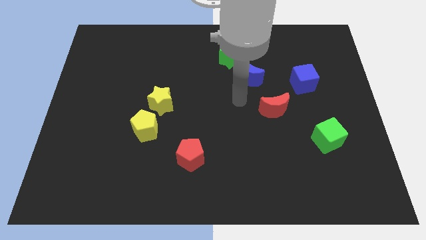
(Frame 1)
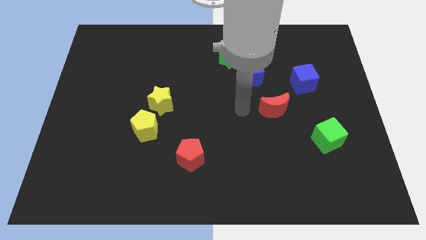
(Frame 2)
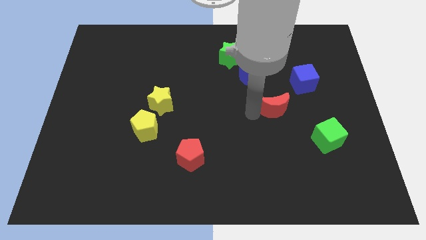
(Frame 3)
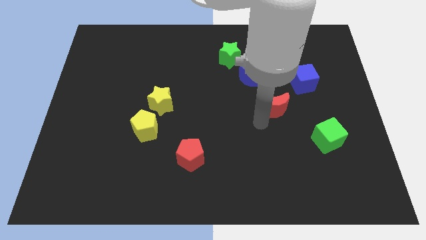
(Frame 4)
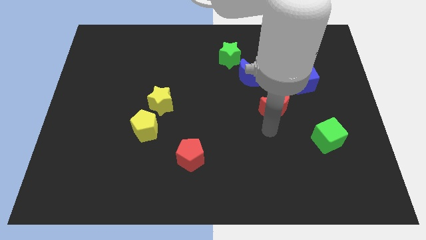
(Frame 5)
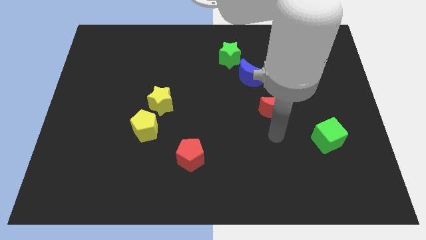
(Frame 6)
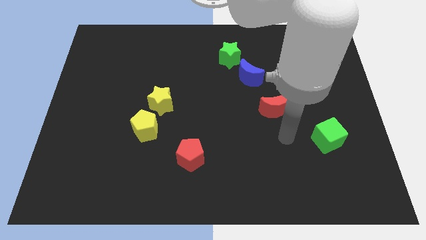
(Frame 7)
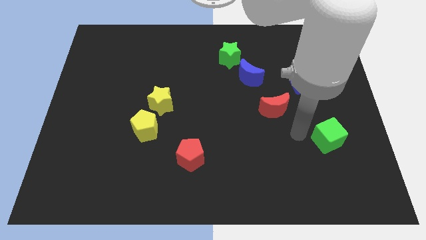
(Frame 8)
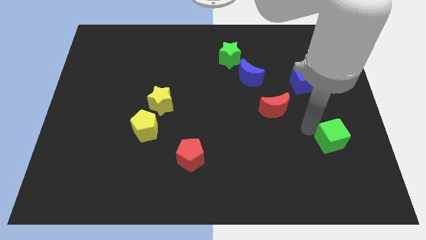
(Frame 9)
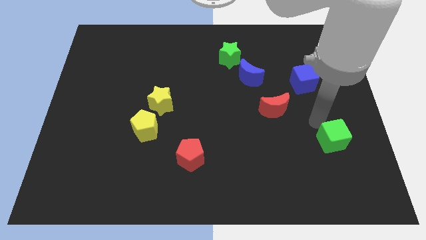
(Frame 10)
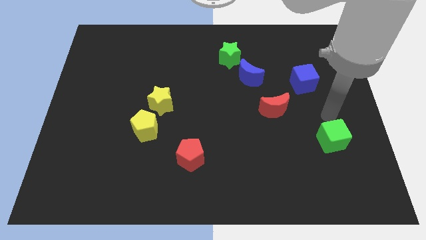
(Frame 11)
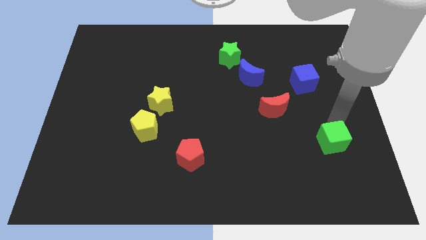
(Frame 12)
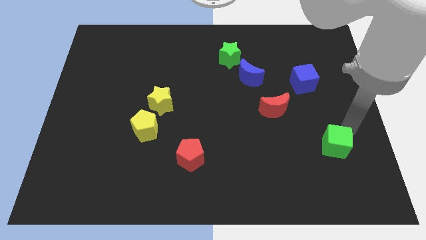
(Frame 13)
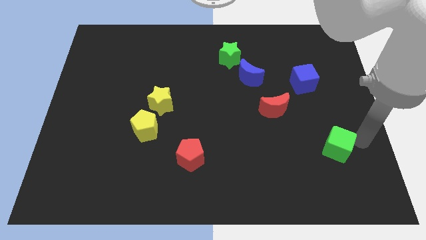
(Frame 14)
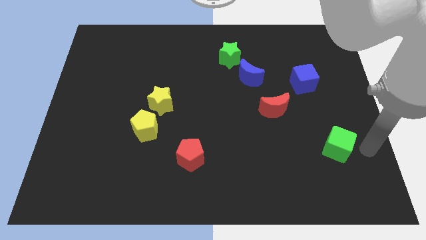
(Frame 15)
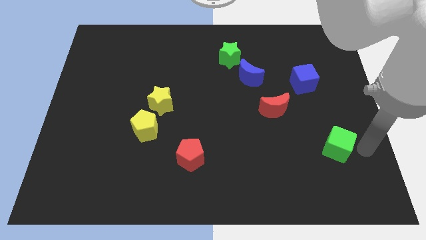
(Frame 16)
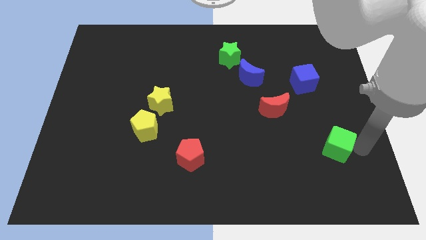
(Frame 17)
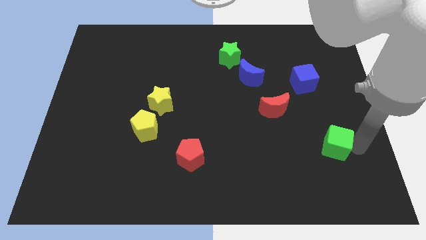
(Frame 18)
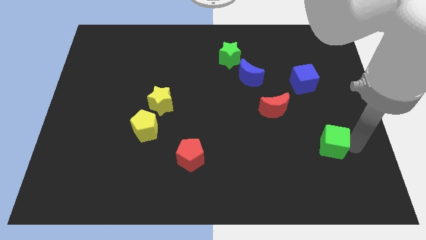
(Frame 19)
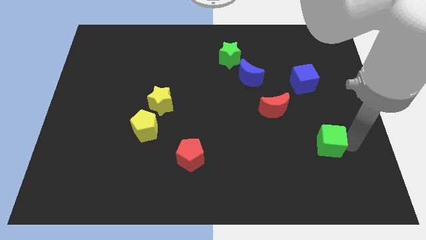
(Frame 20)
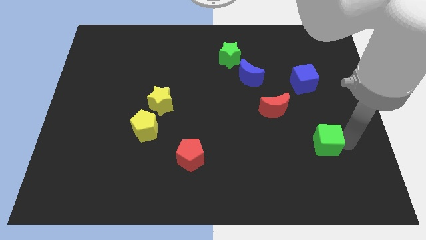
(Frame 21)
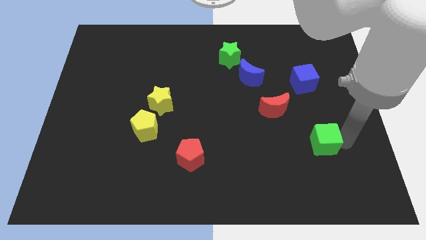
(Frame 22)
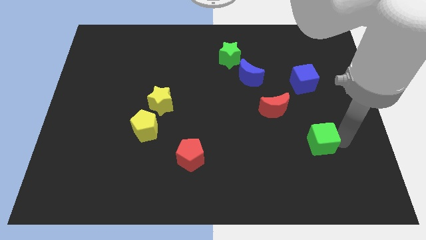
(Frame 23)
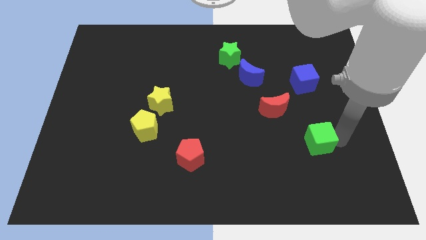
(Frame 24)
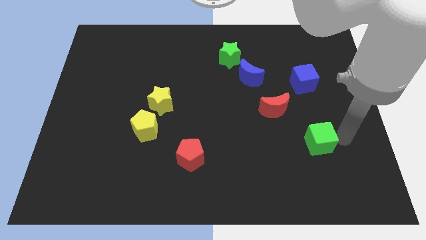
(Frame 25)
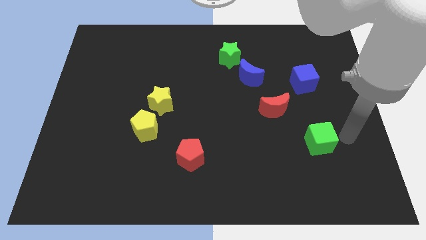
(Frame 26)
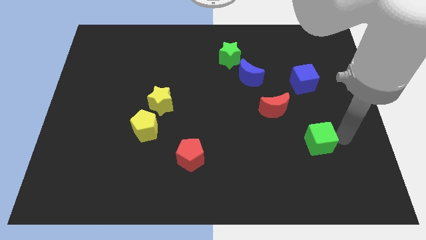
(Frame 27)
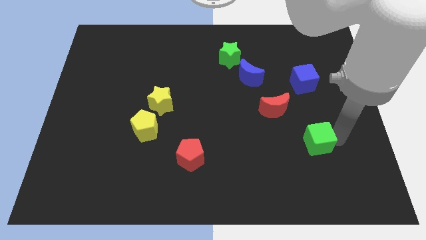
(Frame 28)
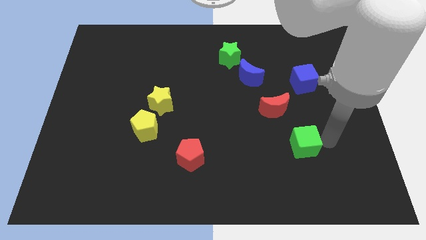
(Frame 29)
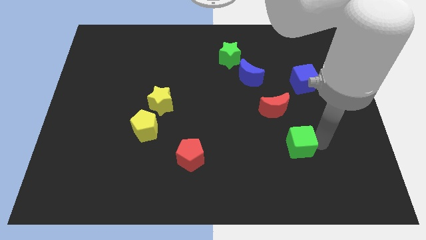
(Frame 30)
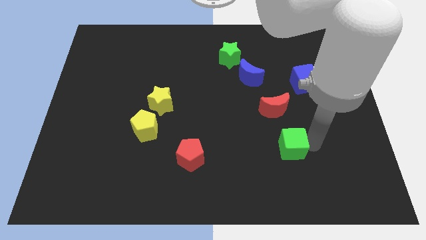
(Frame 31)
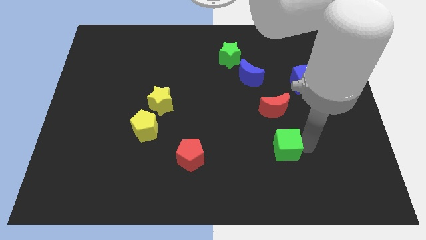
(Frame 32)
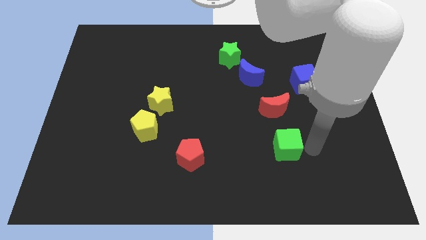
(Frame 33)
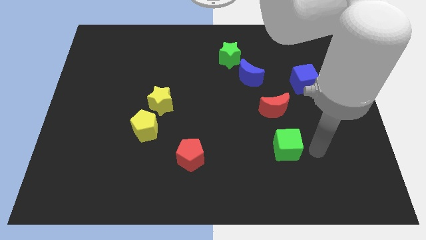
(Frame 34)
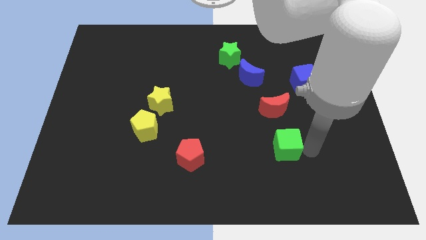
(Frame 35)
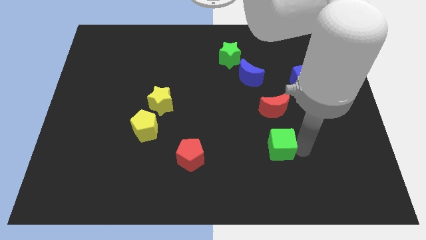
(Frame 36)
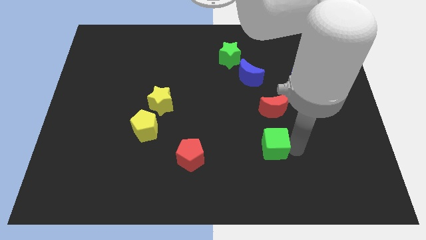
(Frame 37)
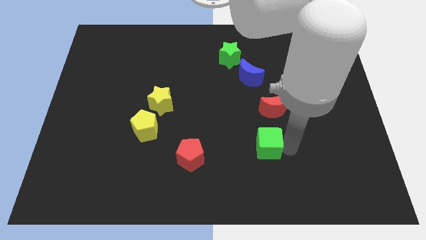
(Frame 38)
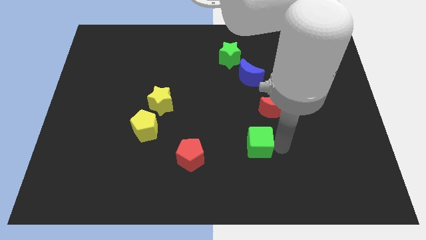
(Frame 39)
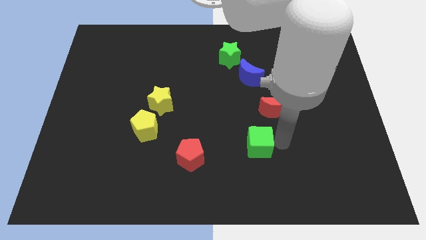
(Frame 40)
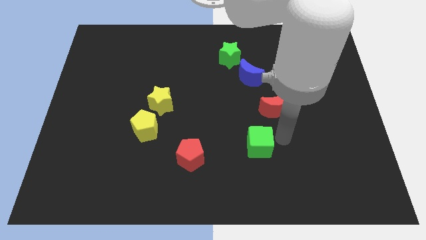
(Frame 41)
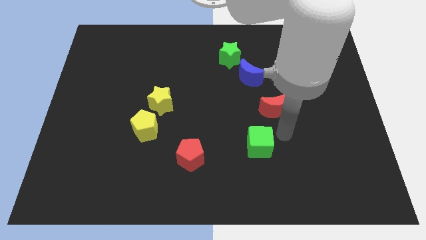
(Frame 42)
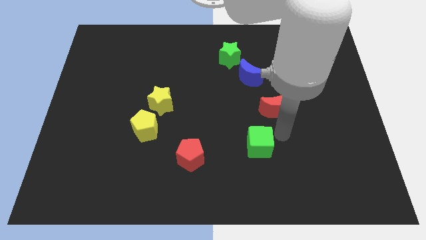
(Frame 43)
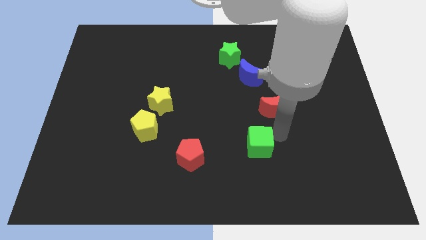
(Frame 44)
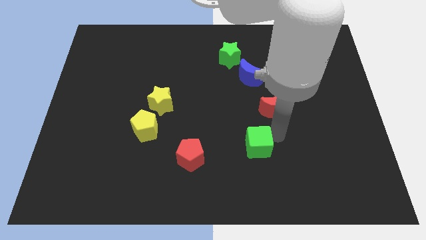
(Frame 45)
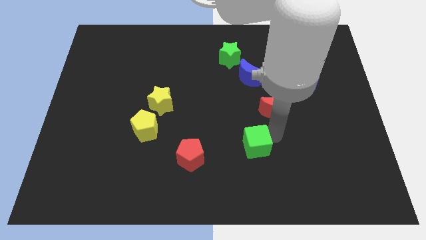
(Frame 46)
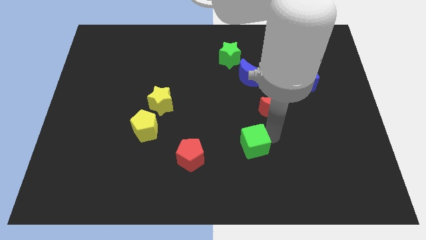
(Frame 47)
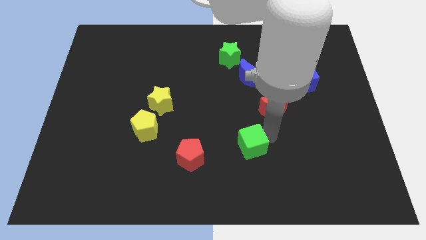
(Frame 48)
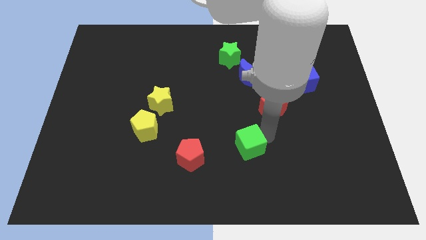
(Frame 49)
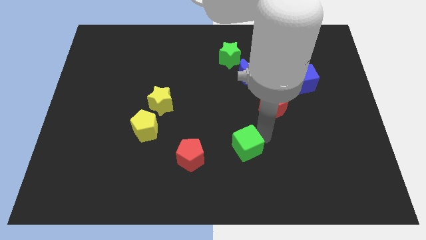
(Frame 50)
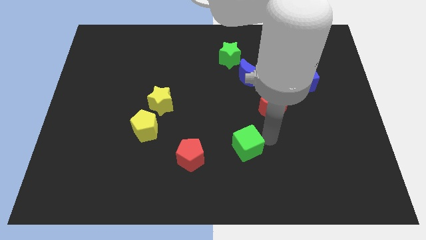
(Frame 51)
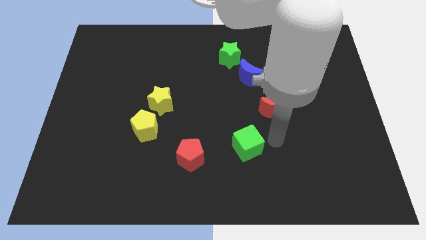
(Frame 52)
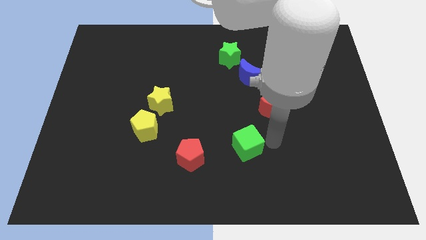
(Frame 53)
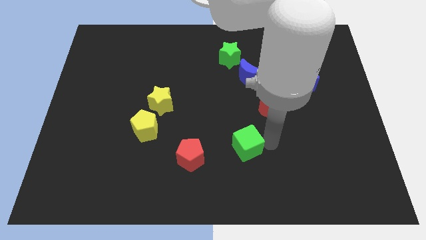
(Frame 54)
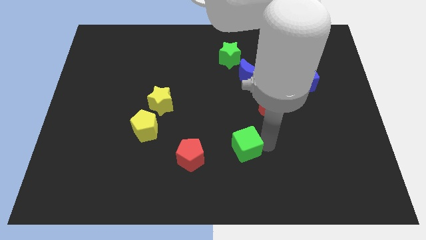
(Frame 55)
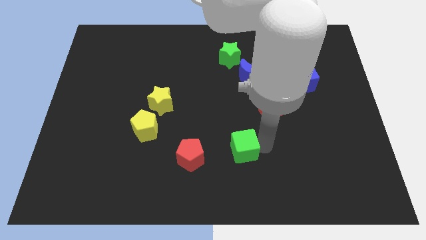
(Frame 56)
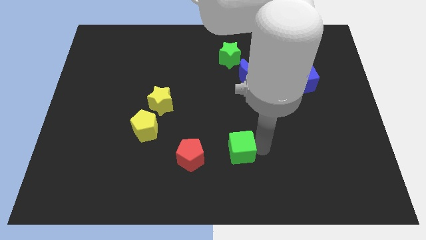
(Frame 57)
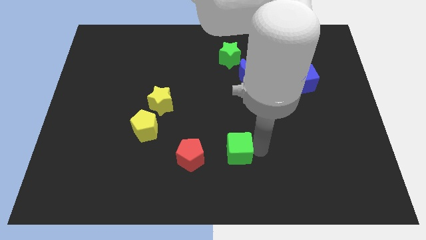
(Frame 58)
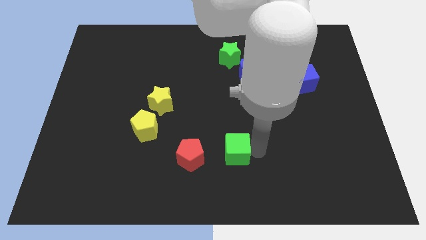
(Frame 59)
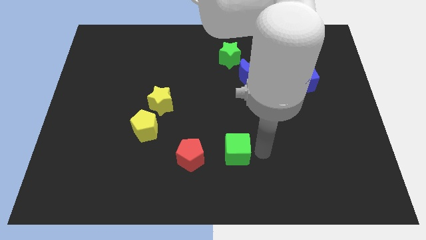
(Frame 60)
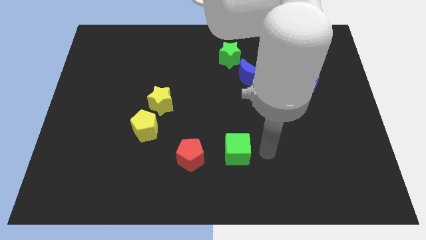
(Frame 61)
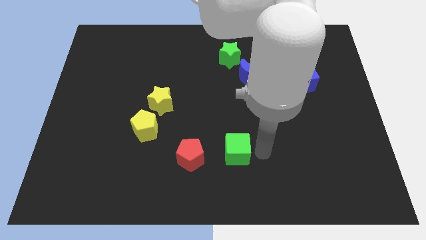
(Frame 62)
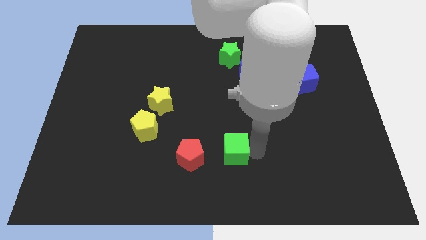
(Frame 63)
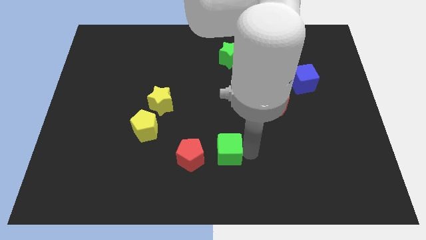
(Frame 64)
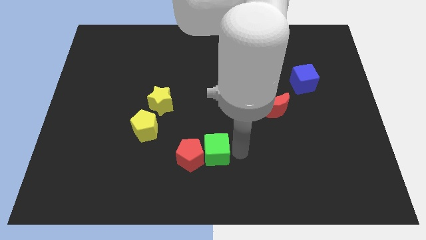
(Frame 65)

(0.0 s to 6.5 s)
move the green cube to the red pentagon

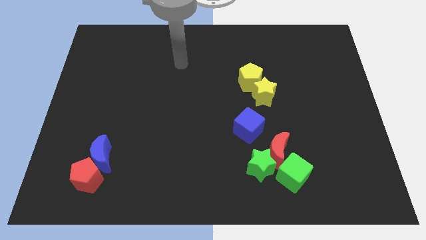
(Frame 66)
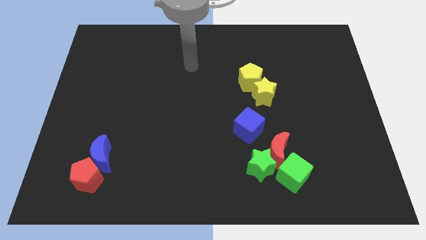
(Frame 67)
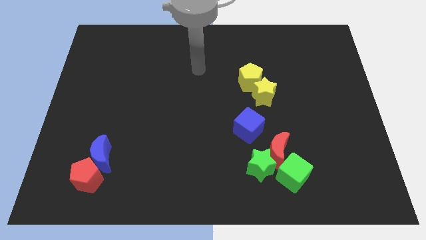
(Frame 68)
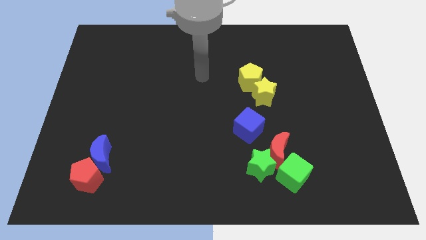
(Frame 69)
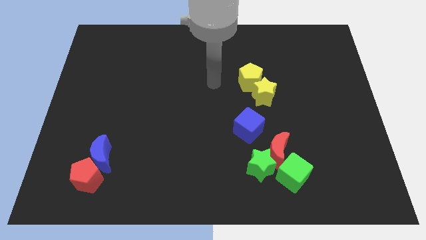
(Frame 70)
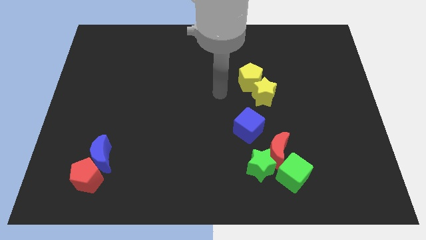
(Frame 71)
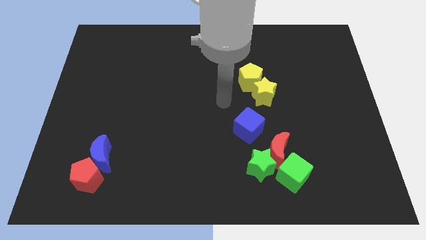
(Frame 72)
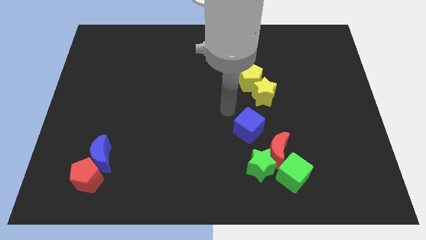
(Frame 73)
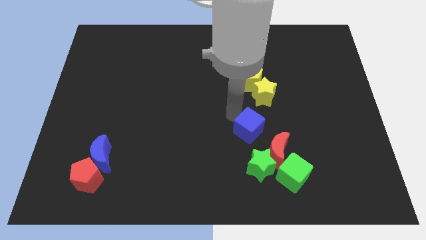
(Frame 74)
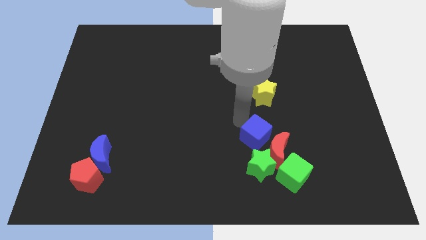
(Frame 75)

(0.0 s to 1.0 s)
slide the blue cube close to the red moon
